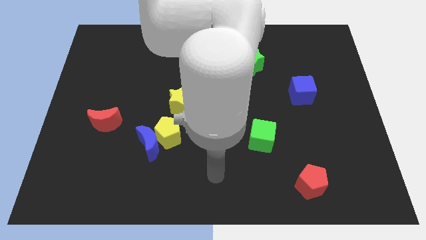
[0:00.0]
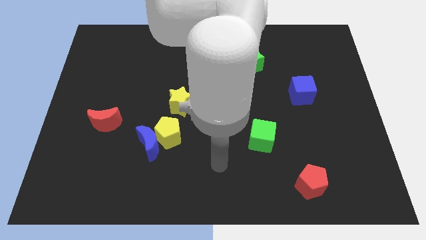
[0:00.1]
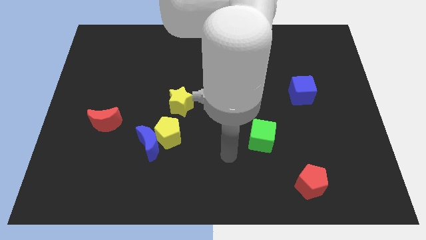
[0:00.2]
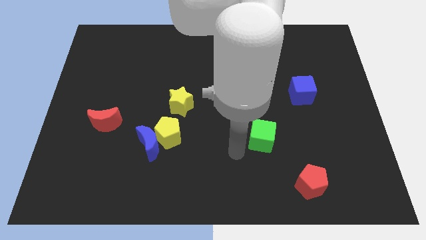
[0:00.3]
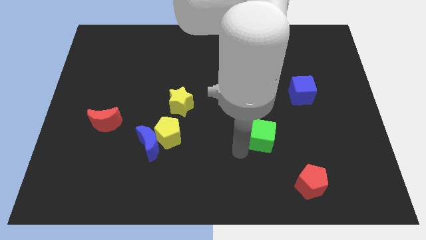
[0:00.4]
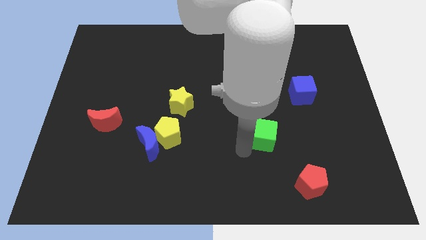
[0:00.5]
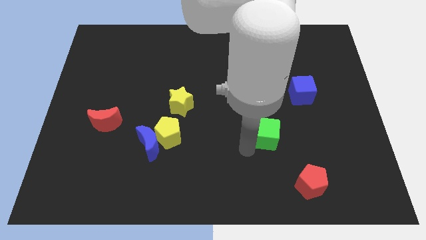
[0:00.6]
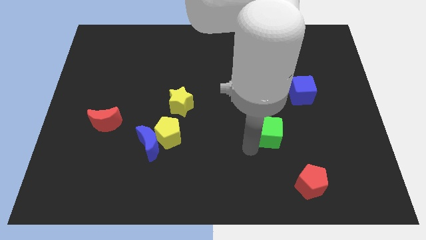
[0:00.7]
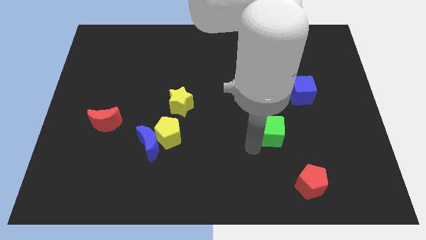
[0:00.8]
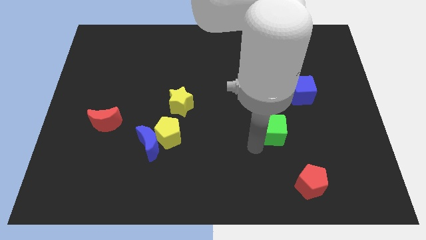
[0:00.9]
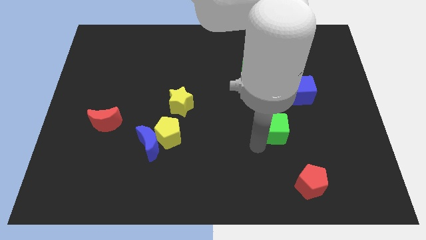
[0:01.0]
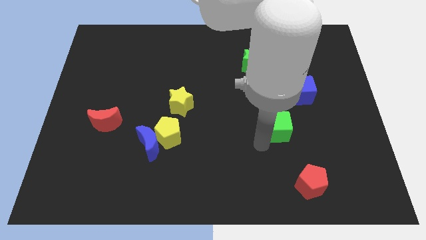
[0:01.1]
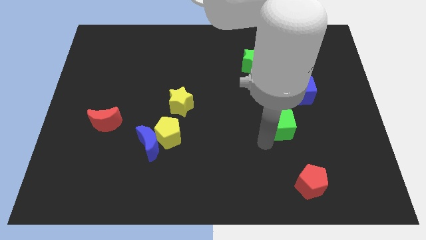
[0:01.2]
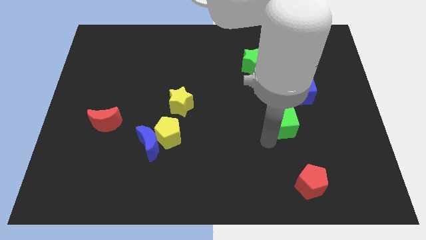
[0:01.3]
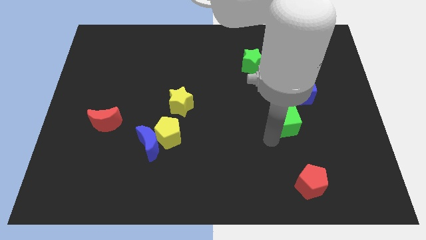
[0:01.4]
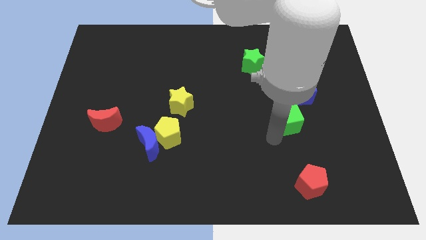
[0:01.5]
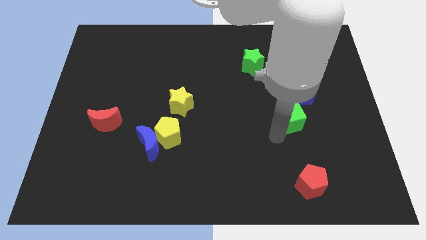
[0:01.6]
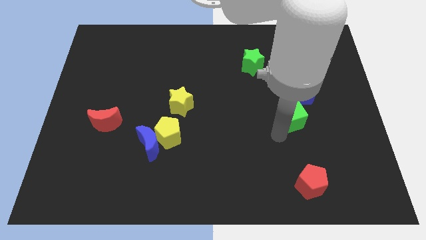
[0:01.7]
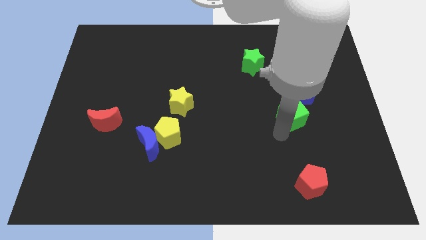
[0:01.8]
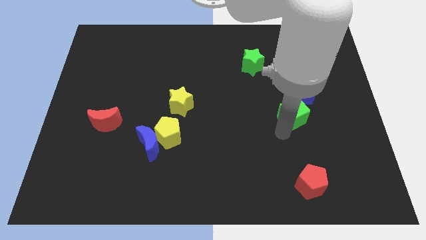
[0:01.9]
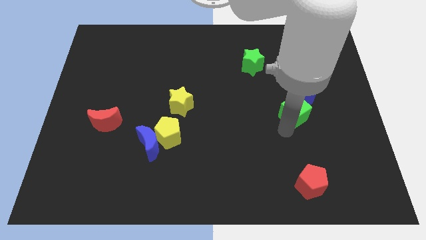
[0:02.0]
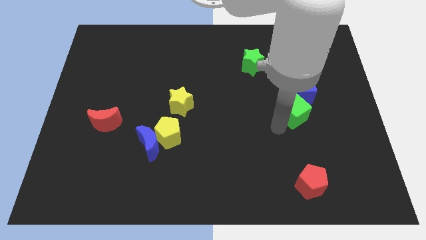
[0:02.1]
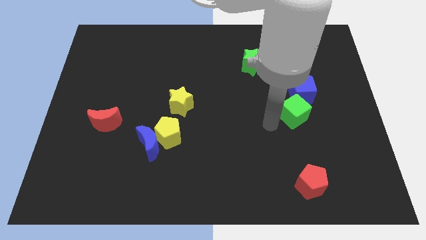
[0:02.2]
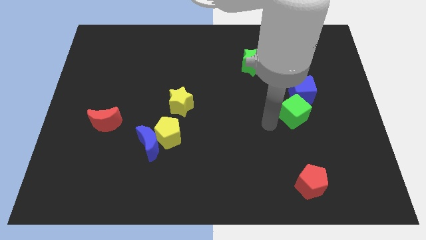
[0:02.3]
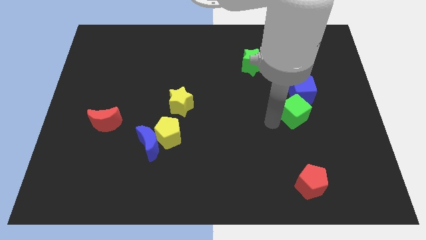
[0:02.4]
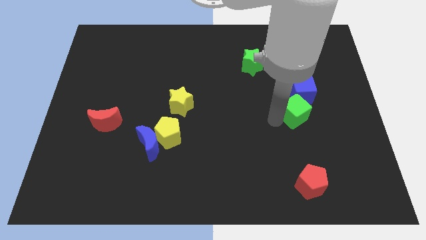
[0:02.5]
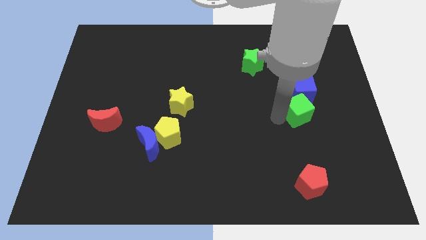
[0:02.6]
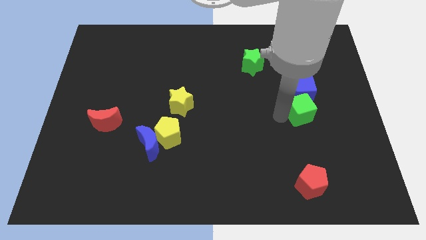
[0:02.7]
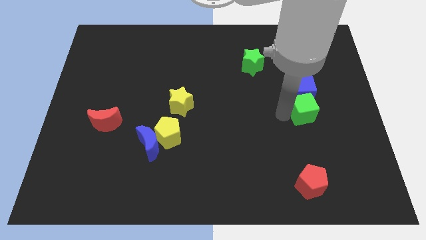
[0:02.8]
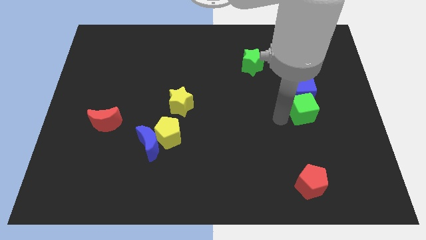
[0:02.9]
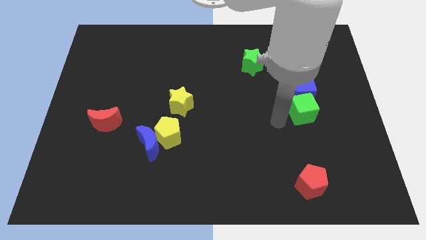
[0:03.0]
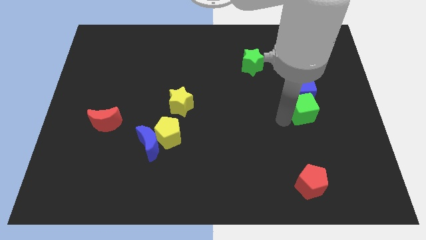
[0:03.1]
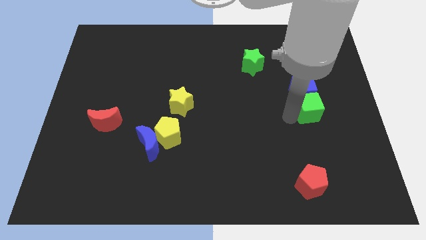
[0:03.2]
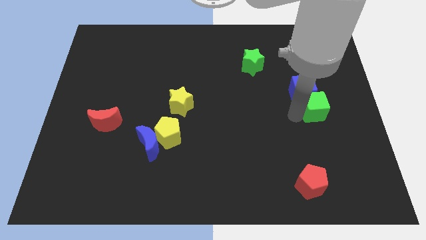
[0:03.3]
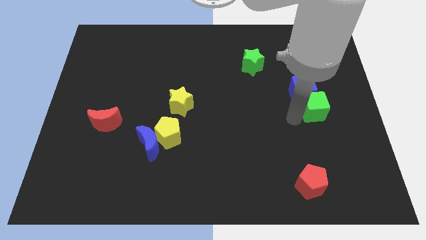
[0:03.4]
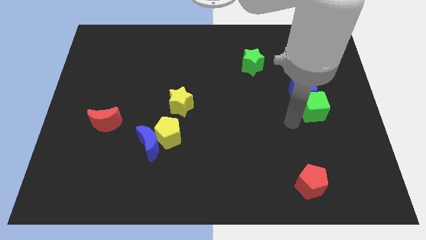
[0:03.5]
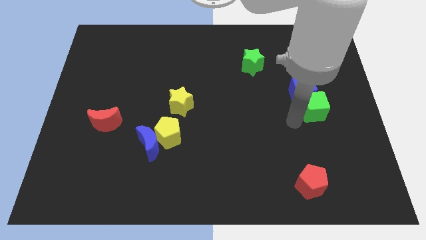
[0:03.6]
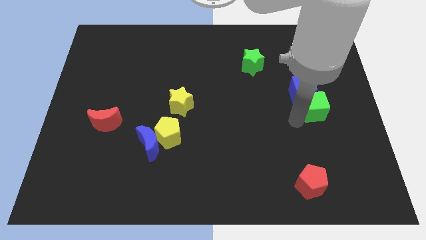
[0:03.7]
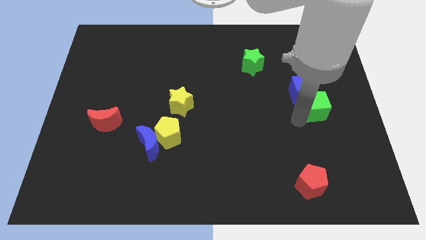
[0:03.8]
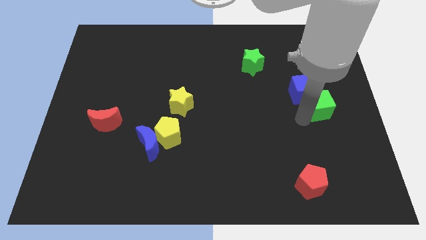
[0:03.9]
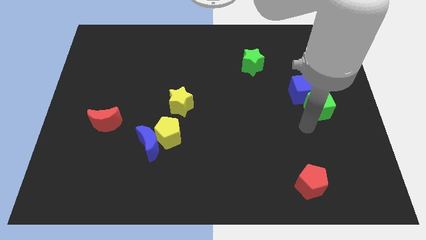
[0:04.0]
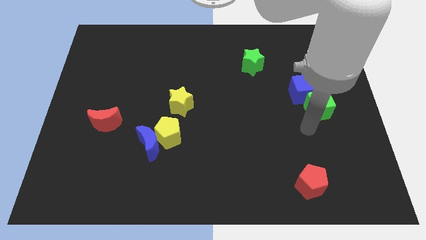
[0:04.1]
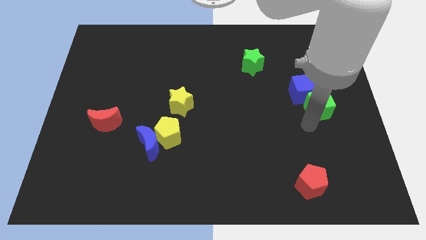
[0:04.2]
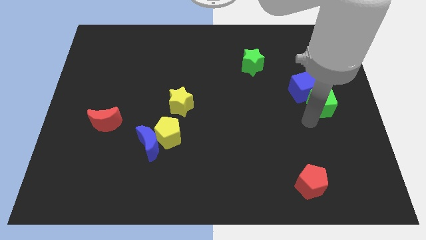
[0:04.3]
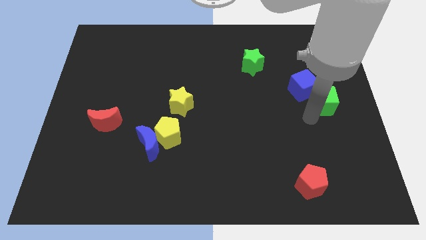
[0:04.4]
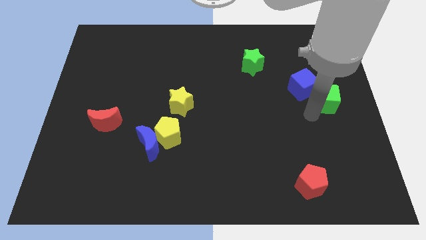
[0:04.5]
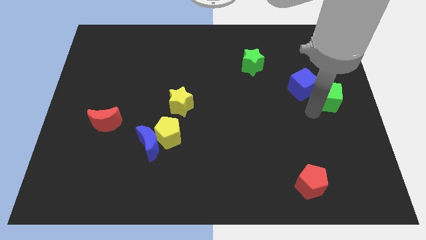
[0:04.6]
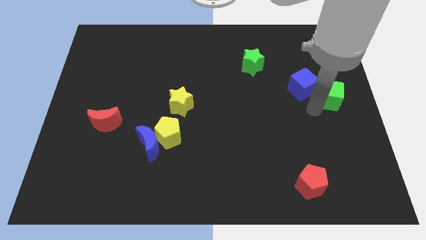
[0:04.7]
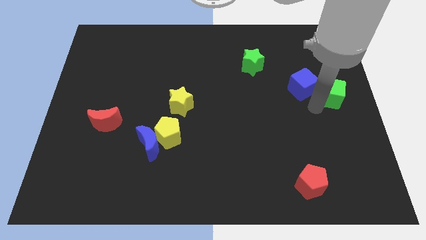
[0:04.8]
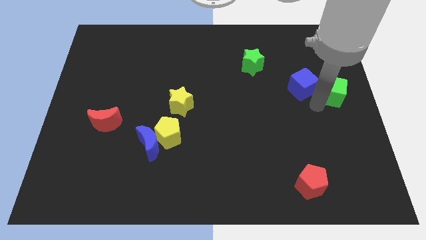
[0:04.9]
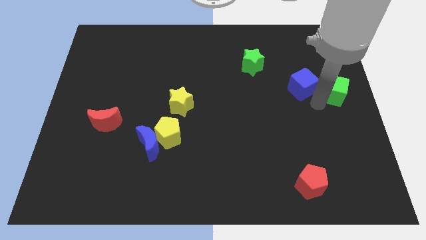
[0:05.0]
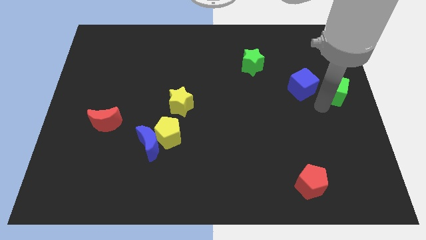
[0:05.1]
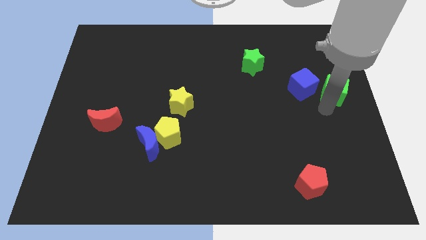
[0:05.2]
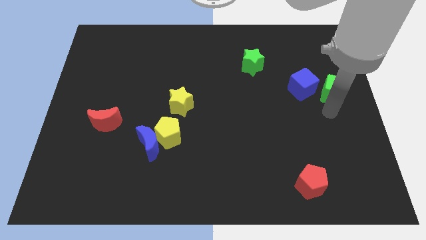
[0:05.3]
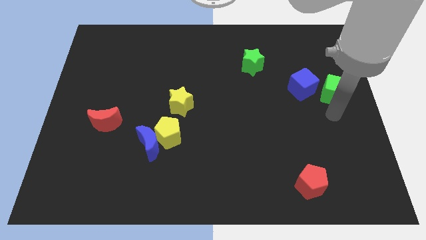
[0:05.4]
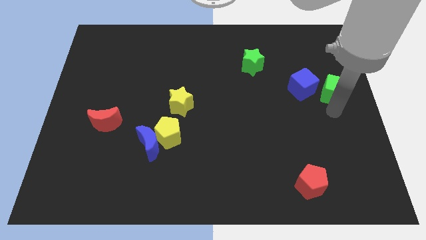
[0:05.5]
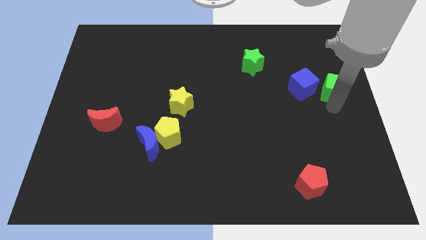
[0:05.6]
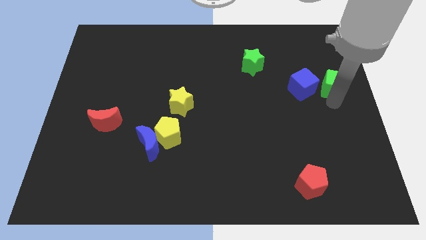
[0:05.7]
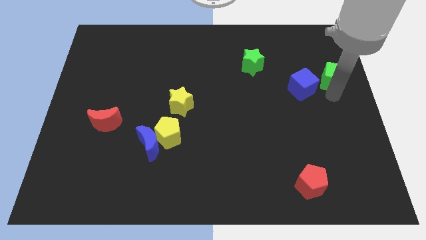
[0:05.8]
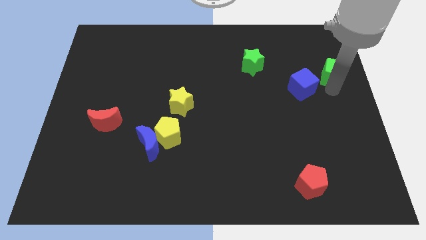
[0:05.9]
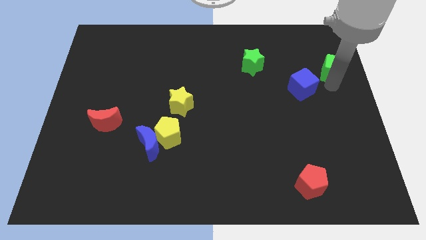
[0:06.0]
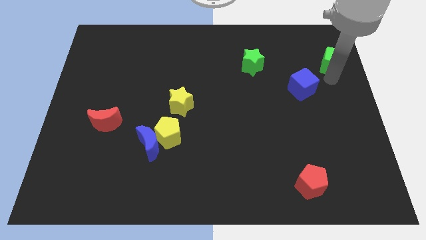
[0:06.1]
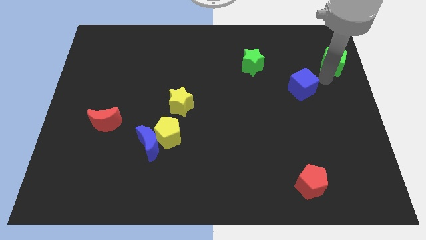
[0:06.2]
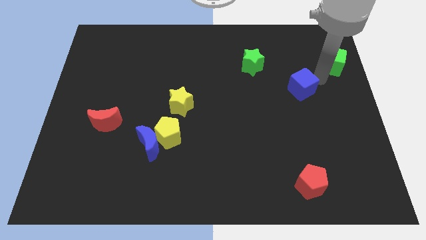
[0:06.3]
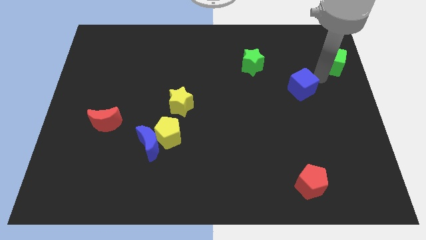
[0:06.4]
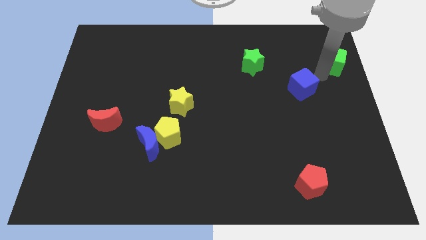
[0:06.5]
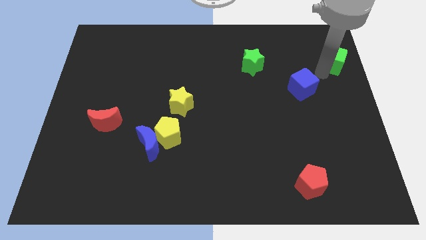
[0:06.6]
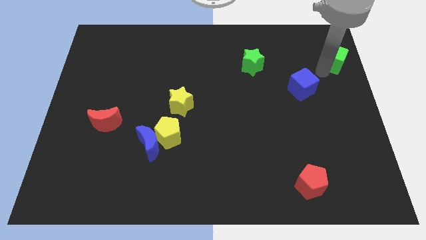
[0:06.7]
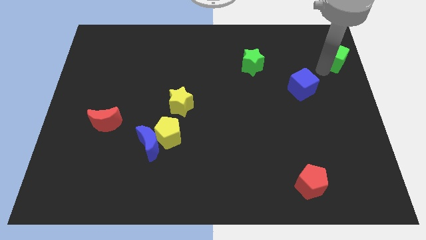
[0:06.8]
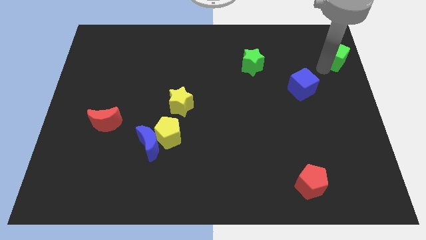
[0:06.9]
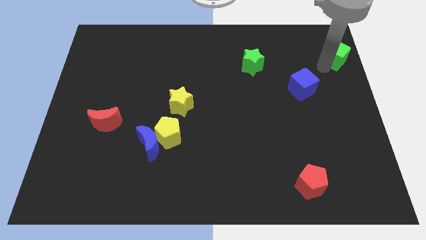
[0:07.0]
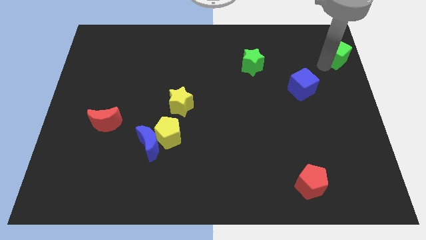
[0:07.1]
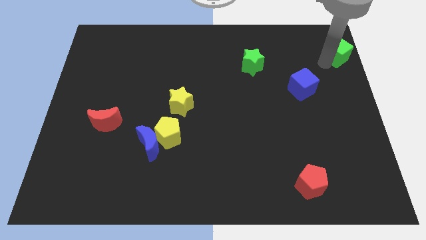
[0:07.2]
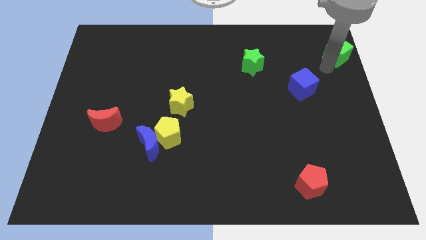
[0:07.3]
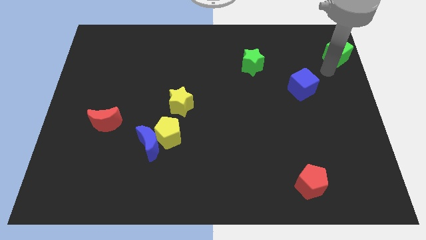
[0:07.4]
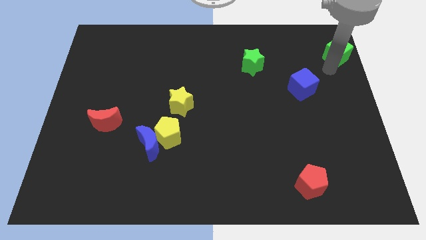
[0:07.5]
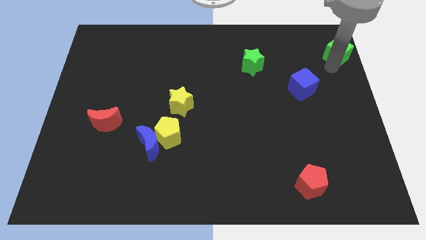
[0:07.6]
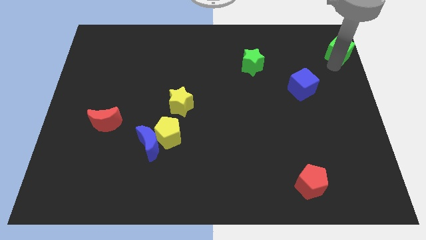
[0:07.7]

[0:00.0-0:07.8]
slide the green cube to the upper right corner
